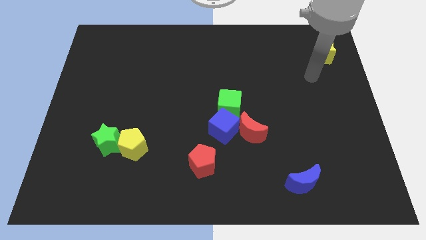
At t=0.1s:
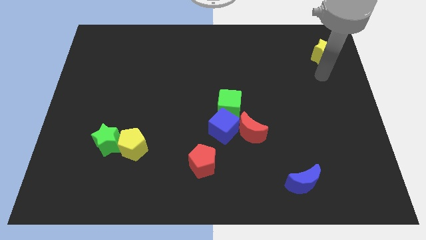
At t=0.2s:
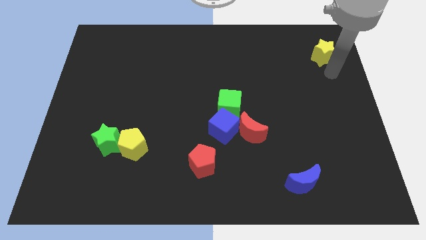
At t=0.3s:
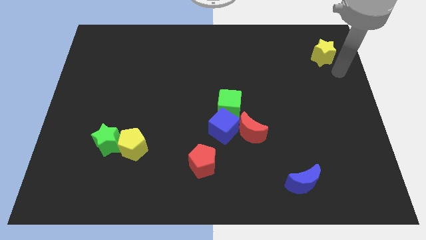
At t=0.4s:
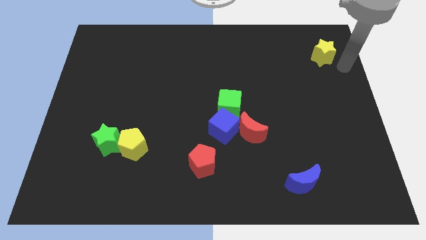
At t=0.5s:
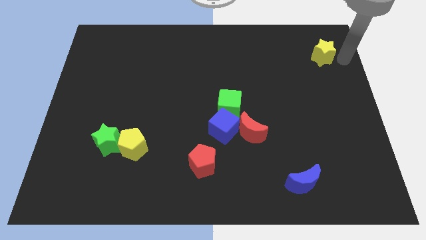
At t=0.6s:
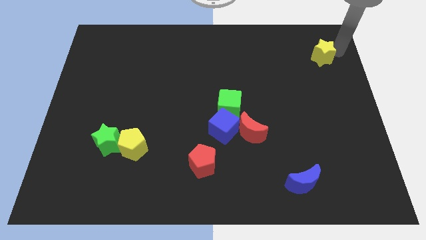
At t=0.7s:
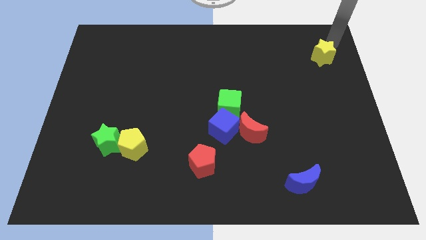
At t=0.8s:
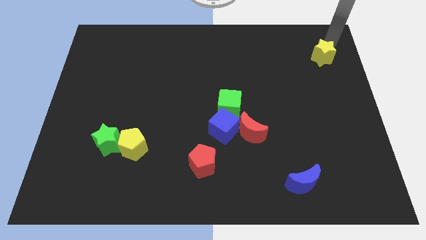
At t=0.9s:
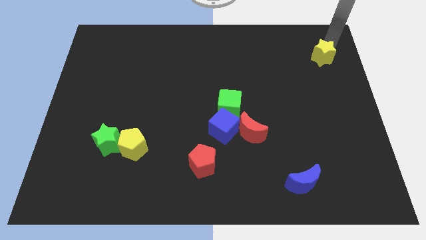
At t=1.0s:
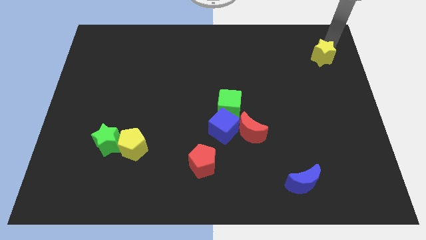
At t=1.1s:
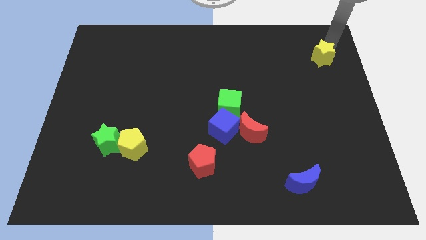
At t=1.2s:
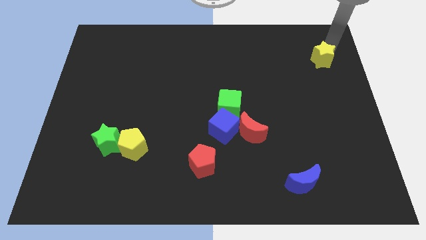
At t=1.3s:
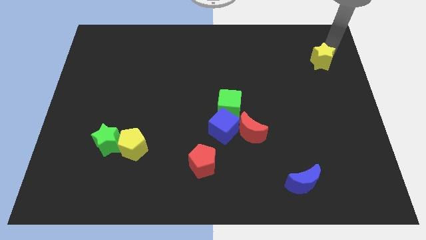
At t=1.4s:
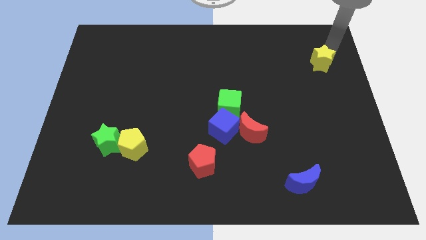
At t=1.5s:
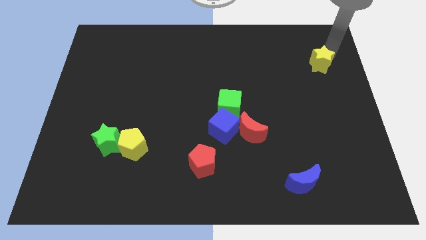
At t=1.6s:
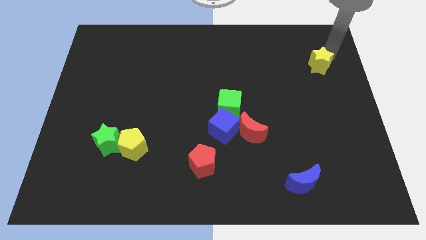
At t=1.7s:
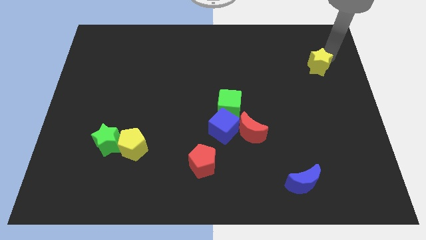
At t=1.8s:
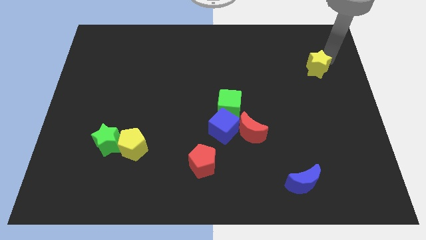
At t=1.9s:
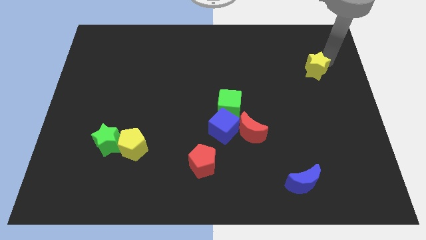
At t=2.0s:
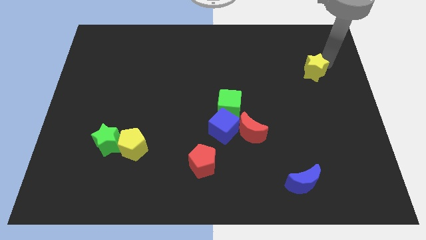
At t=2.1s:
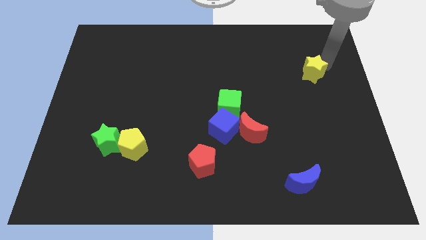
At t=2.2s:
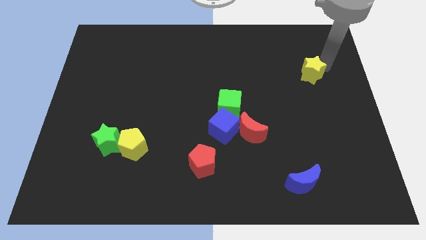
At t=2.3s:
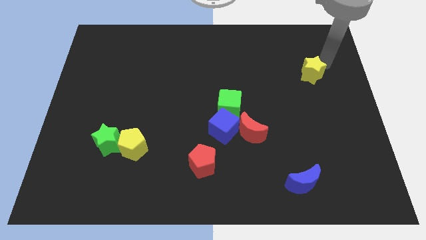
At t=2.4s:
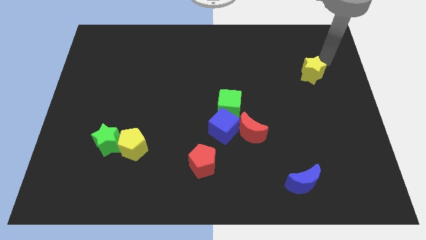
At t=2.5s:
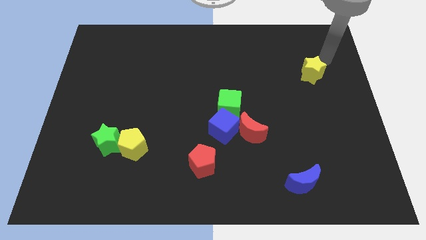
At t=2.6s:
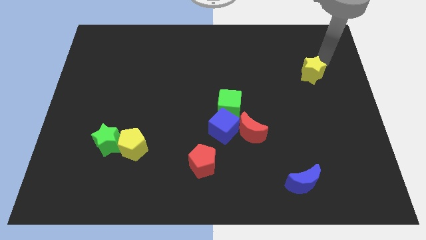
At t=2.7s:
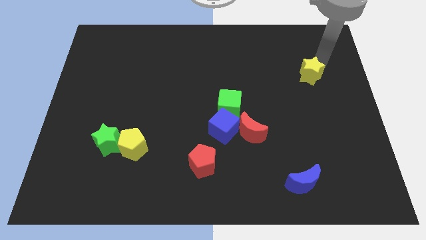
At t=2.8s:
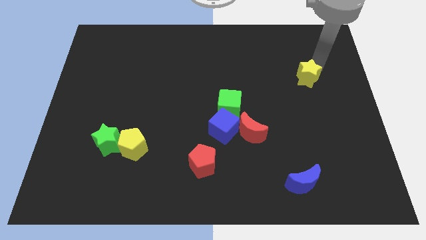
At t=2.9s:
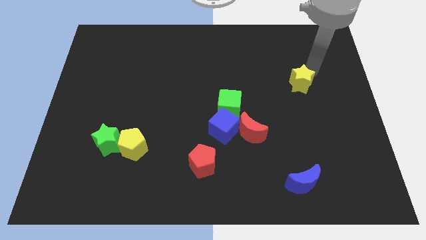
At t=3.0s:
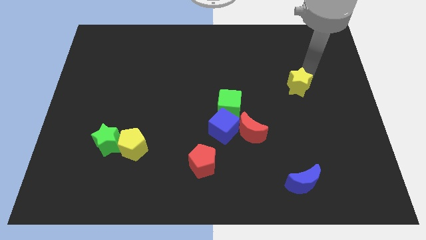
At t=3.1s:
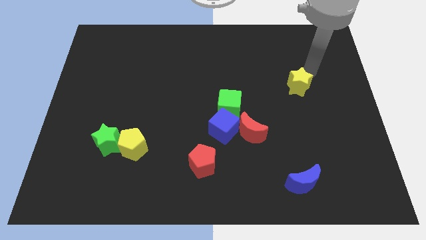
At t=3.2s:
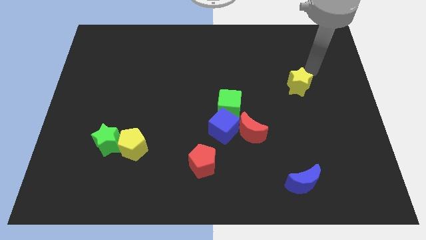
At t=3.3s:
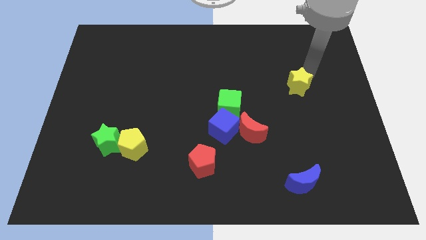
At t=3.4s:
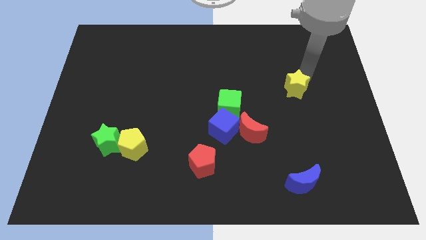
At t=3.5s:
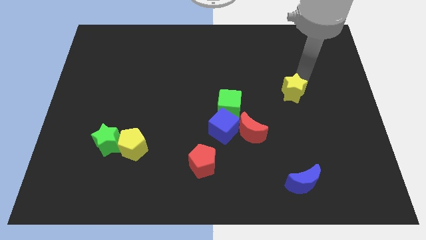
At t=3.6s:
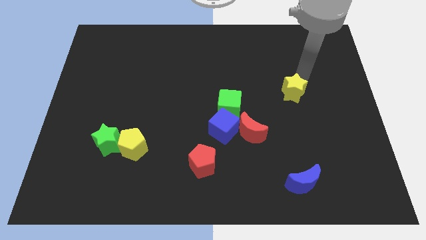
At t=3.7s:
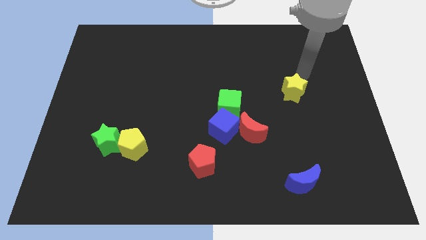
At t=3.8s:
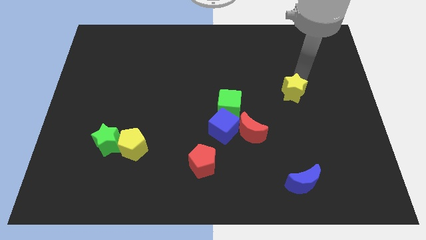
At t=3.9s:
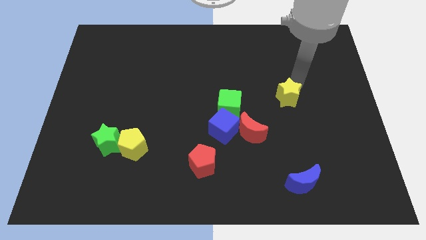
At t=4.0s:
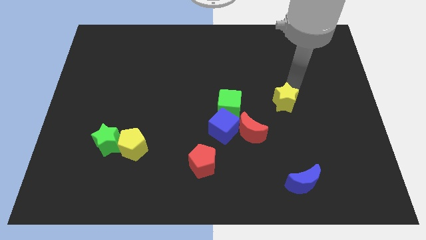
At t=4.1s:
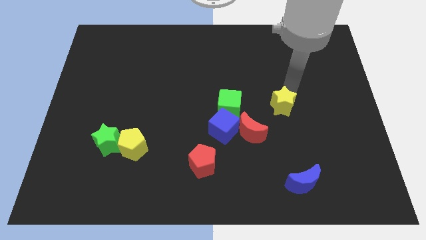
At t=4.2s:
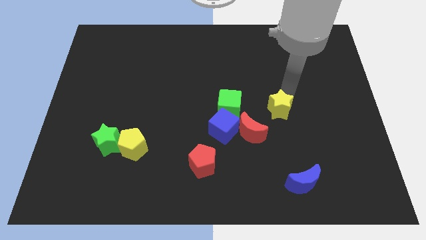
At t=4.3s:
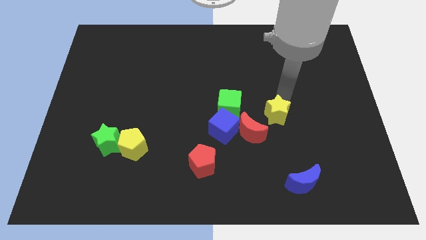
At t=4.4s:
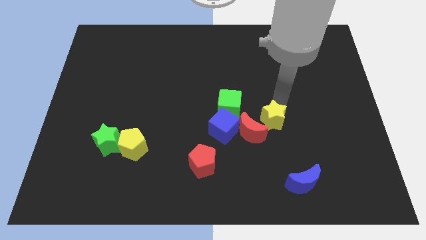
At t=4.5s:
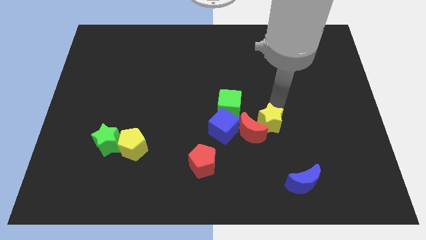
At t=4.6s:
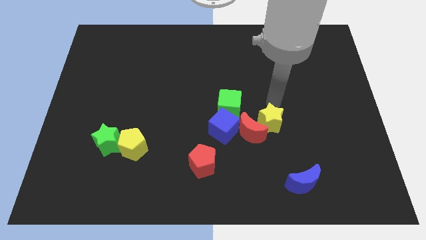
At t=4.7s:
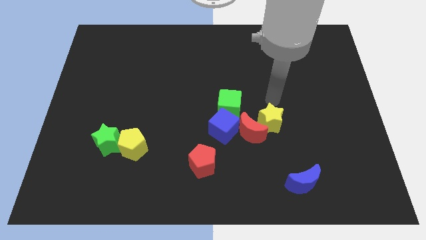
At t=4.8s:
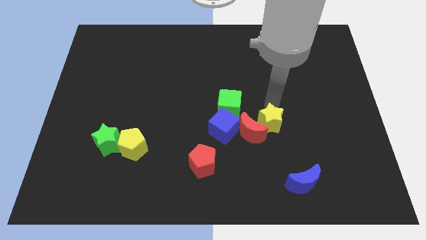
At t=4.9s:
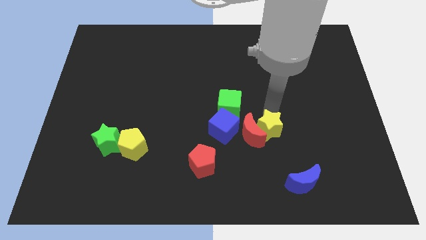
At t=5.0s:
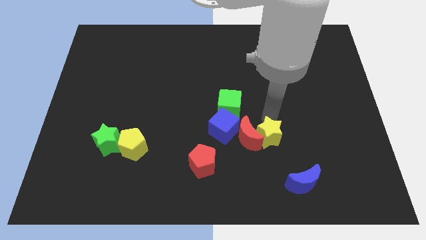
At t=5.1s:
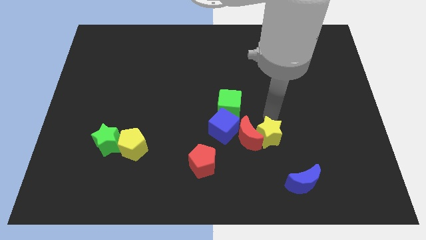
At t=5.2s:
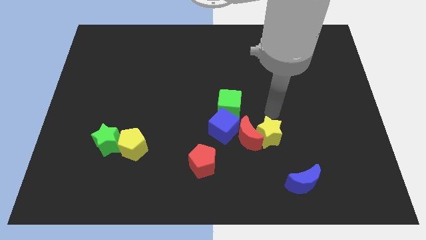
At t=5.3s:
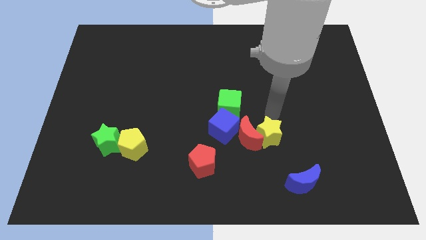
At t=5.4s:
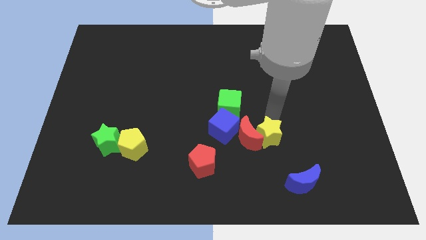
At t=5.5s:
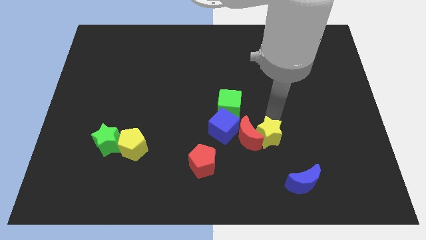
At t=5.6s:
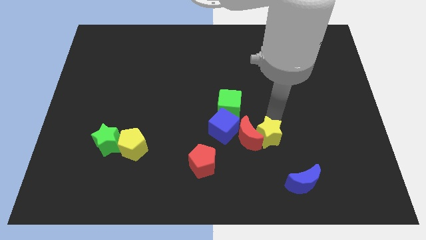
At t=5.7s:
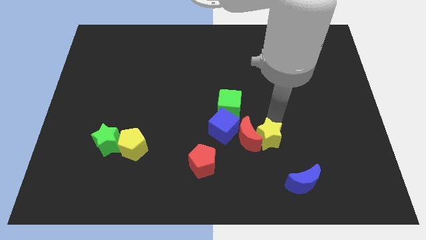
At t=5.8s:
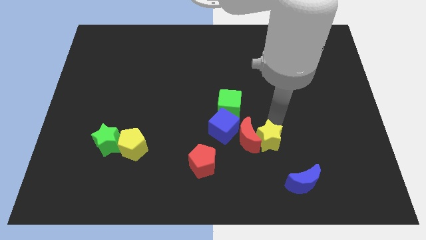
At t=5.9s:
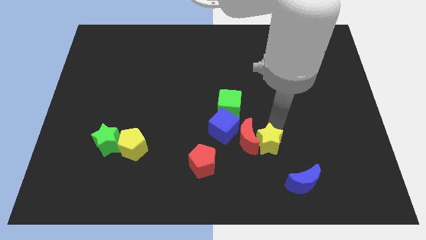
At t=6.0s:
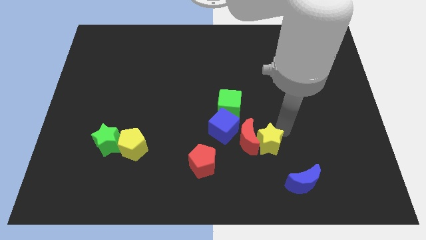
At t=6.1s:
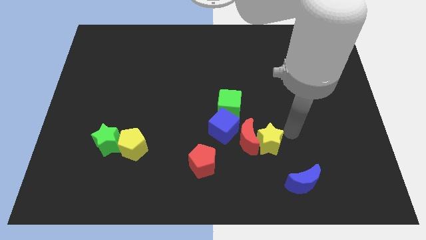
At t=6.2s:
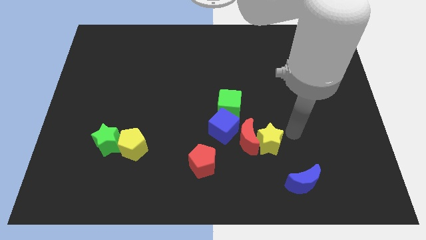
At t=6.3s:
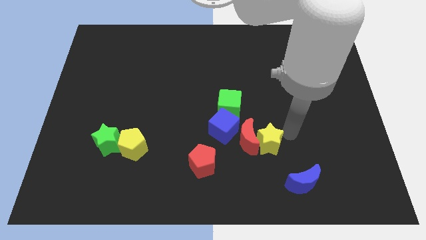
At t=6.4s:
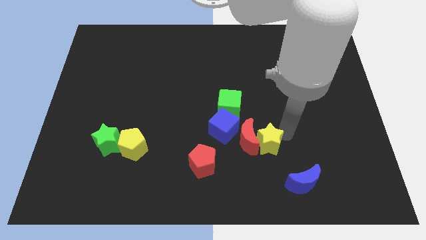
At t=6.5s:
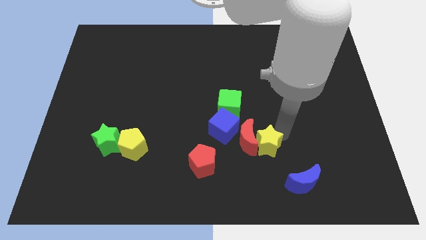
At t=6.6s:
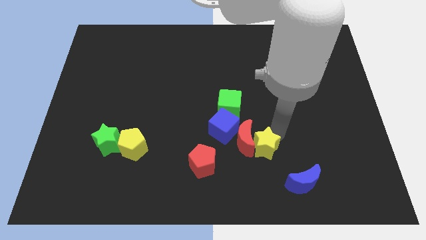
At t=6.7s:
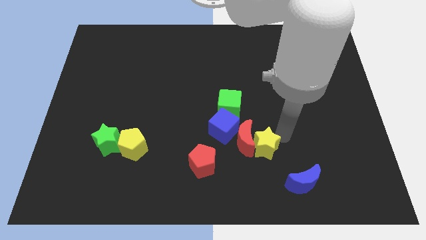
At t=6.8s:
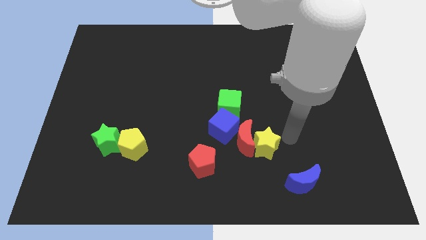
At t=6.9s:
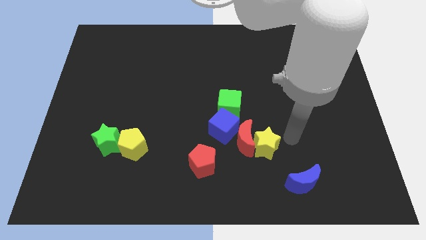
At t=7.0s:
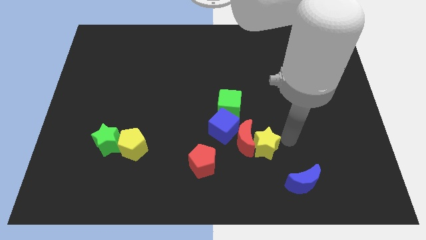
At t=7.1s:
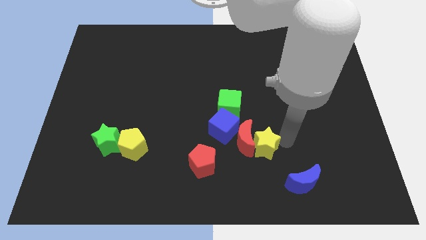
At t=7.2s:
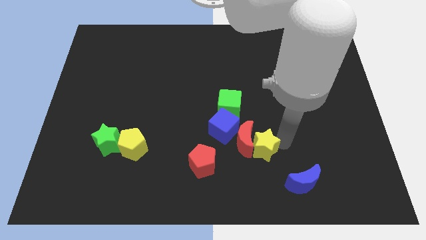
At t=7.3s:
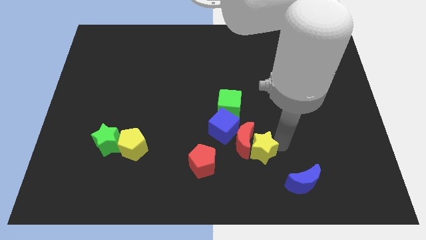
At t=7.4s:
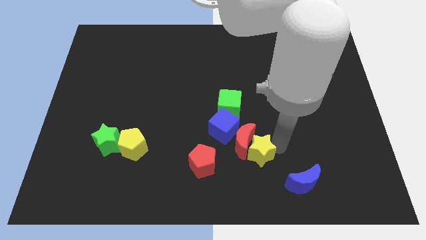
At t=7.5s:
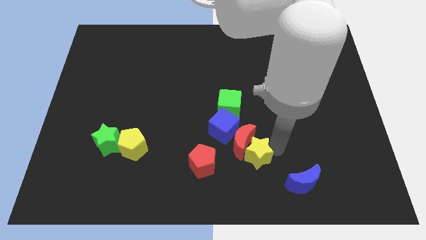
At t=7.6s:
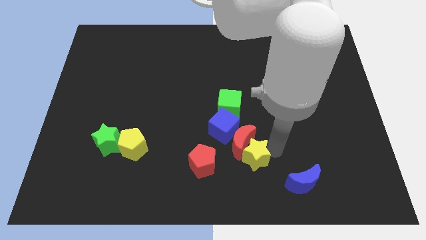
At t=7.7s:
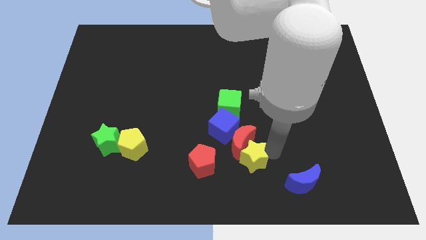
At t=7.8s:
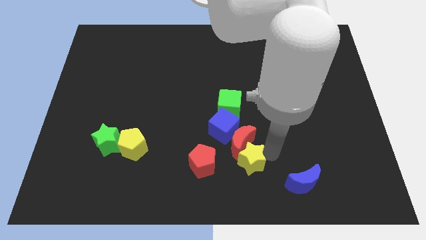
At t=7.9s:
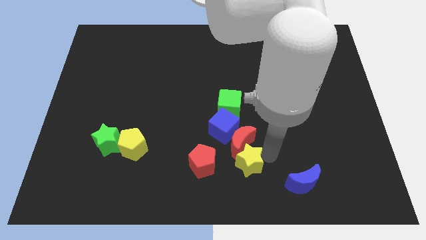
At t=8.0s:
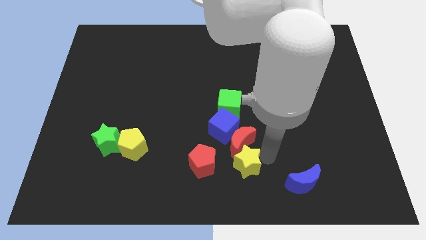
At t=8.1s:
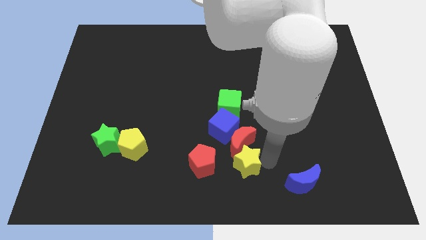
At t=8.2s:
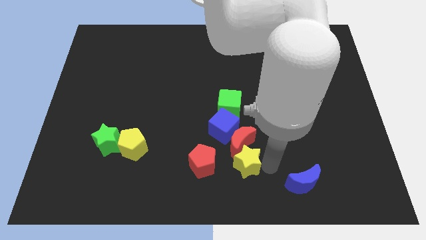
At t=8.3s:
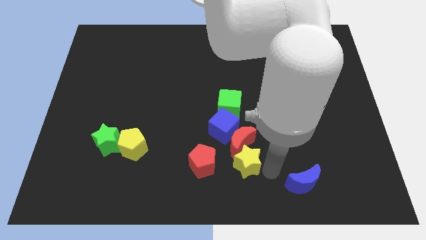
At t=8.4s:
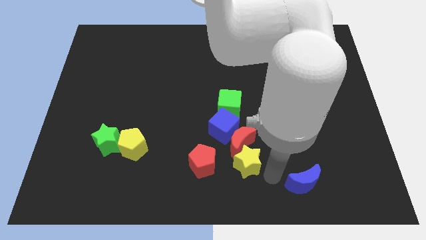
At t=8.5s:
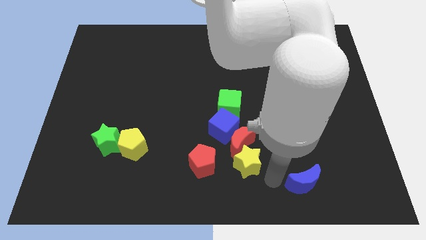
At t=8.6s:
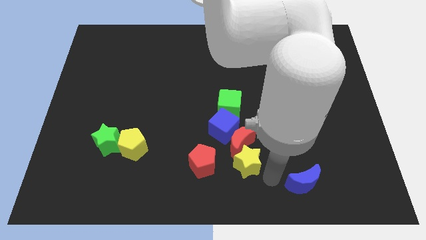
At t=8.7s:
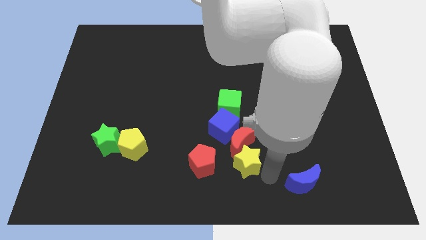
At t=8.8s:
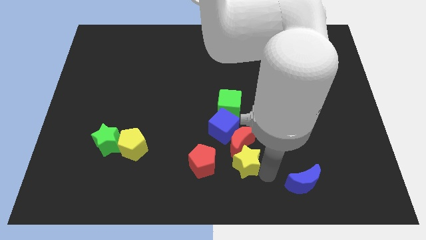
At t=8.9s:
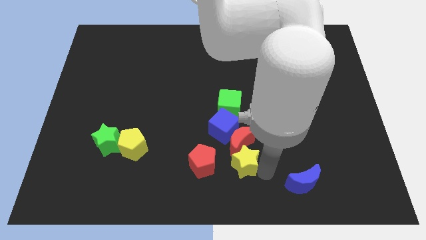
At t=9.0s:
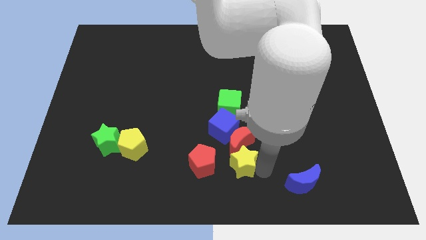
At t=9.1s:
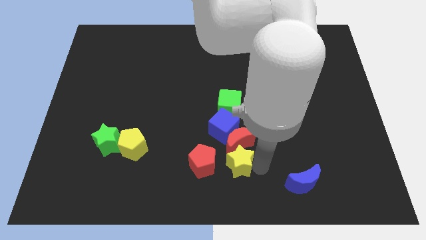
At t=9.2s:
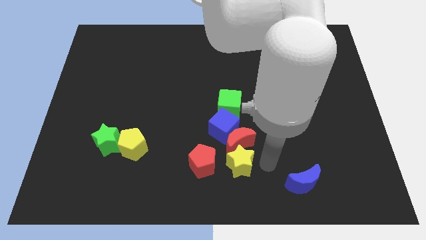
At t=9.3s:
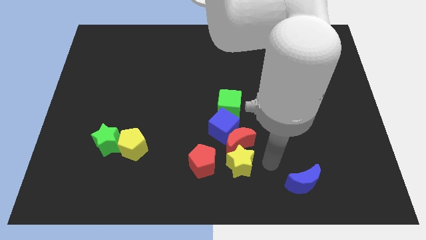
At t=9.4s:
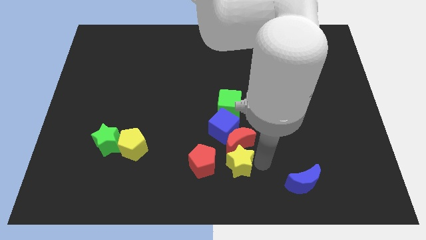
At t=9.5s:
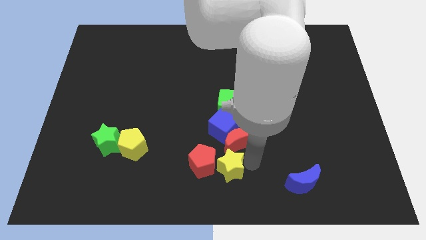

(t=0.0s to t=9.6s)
slide the yellow star to the red pentagon
